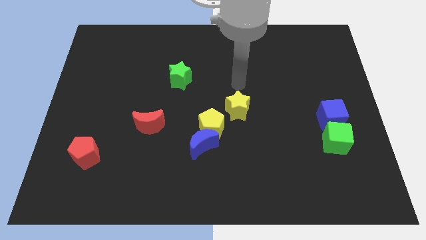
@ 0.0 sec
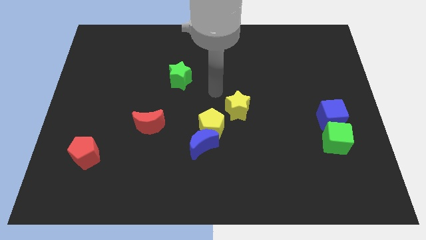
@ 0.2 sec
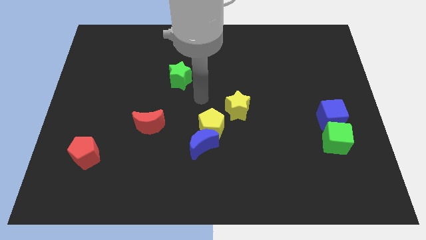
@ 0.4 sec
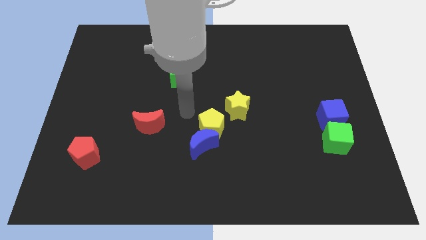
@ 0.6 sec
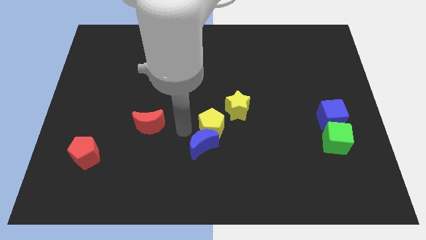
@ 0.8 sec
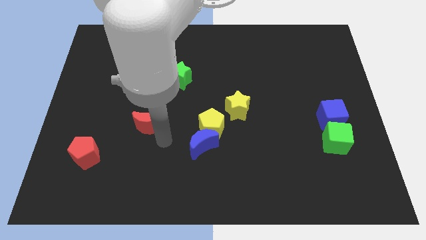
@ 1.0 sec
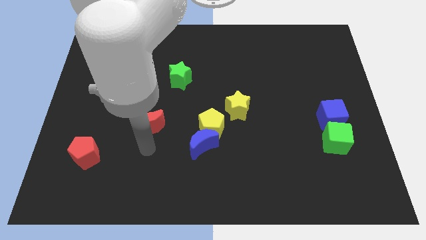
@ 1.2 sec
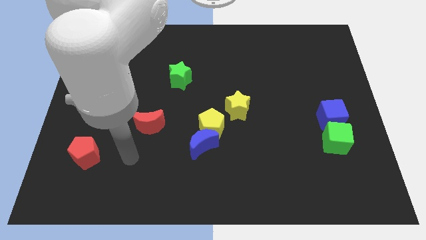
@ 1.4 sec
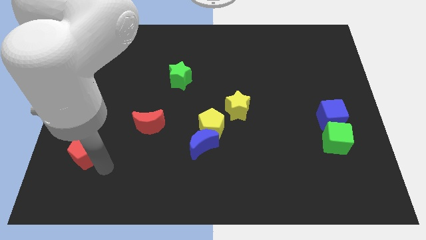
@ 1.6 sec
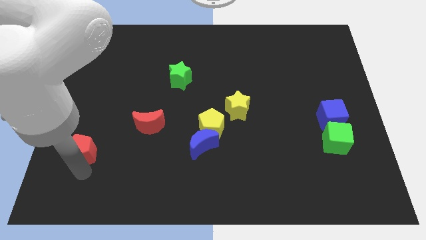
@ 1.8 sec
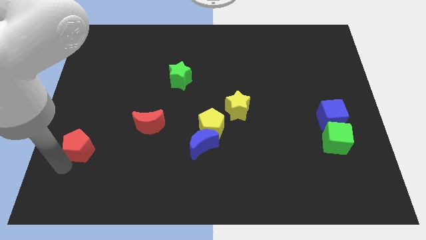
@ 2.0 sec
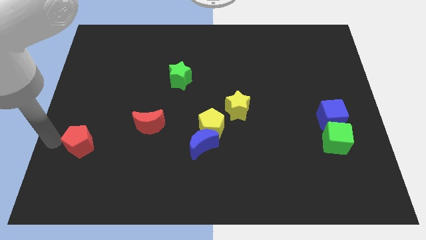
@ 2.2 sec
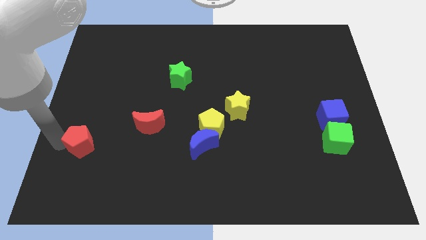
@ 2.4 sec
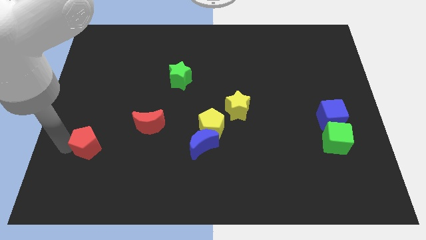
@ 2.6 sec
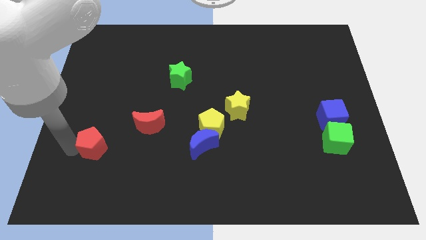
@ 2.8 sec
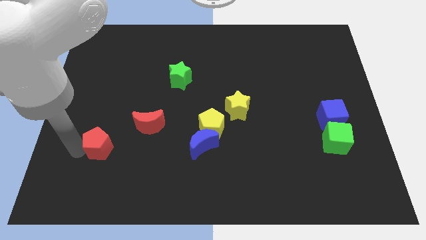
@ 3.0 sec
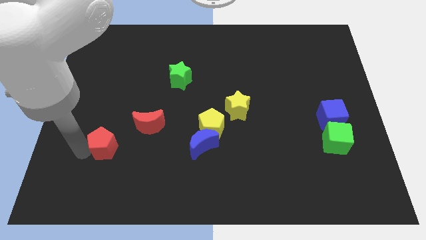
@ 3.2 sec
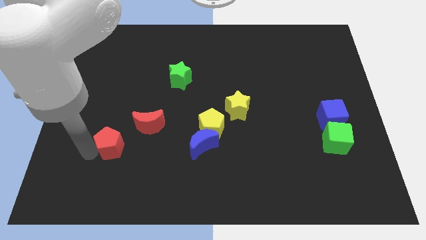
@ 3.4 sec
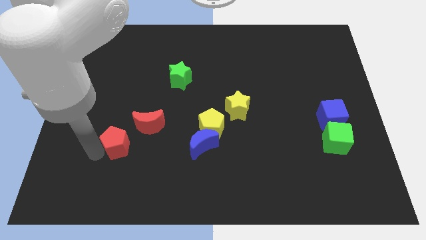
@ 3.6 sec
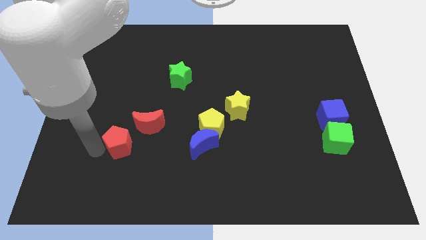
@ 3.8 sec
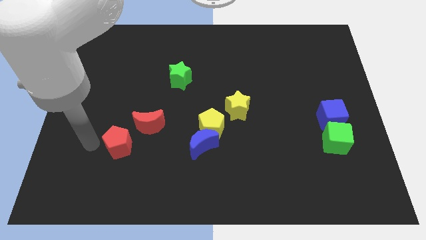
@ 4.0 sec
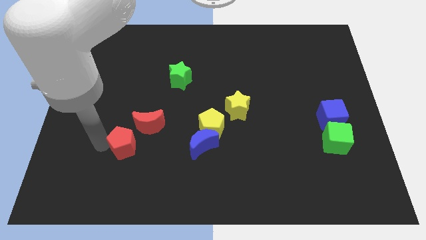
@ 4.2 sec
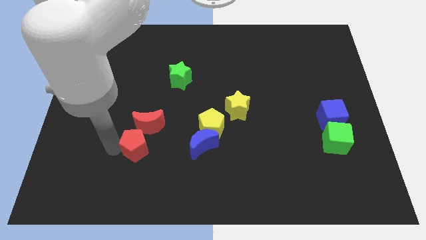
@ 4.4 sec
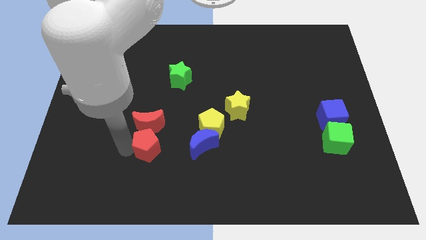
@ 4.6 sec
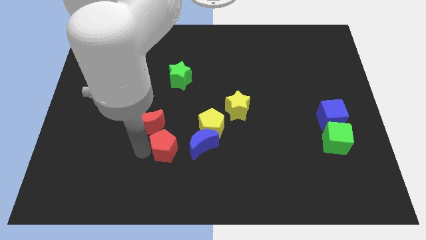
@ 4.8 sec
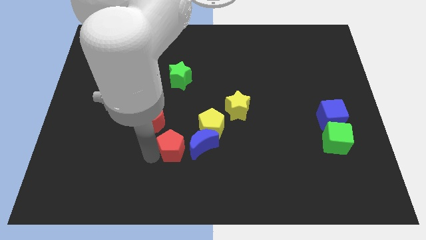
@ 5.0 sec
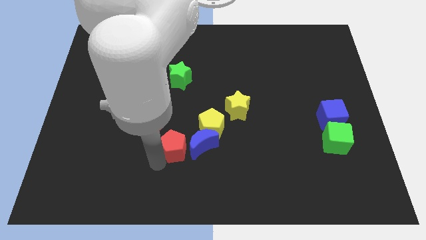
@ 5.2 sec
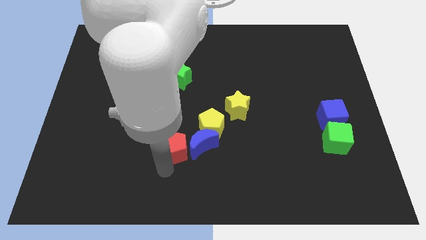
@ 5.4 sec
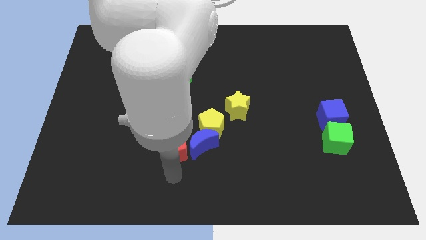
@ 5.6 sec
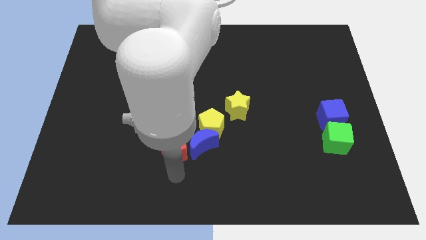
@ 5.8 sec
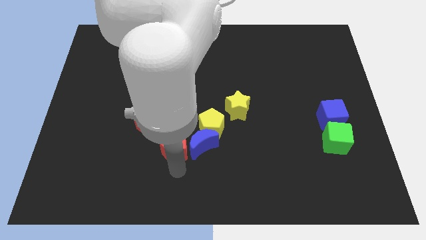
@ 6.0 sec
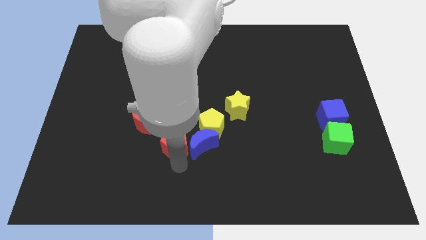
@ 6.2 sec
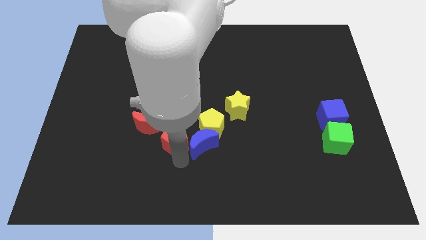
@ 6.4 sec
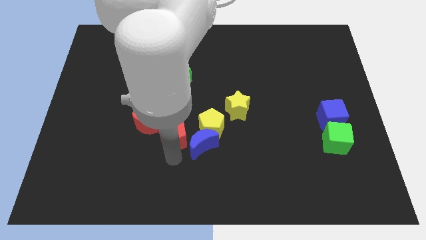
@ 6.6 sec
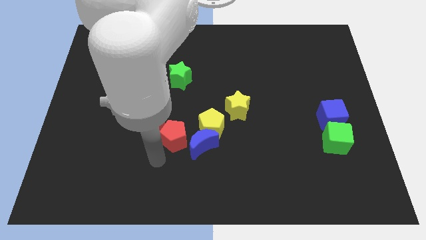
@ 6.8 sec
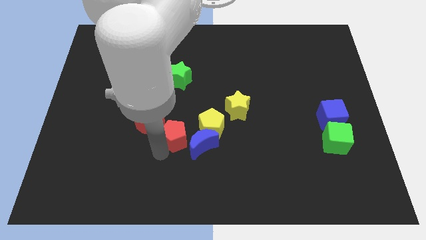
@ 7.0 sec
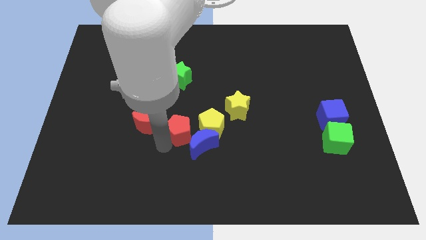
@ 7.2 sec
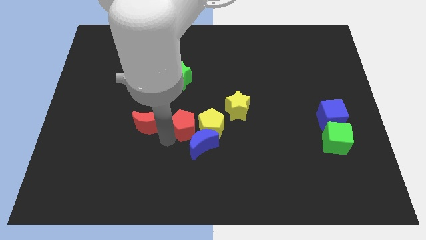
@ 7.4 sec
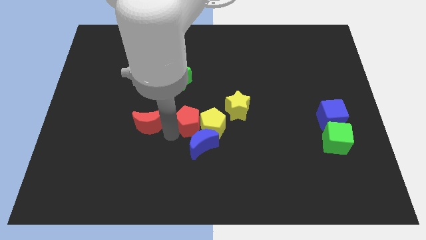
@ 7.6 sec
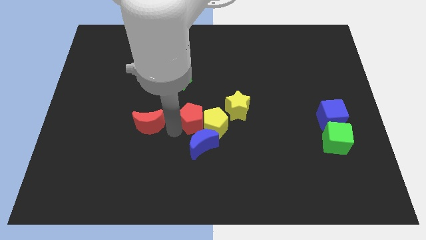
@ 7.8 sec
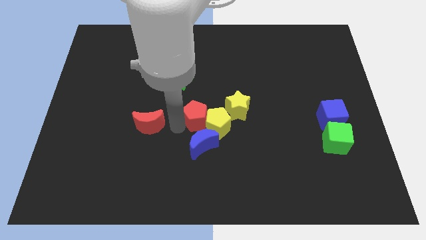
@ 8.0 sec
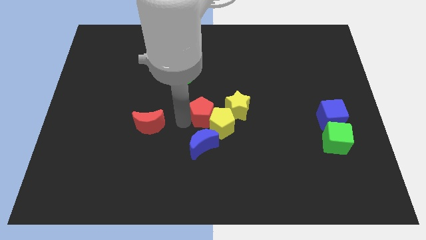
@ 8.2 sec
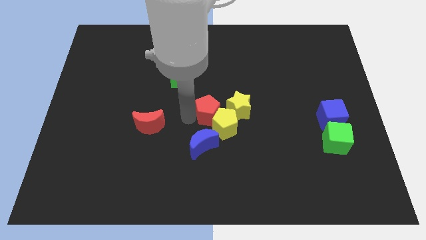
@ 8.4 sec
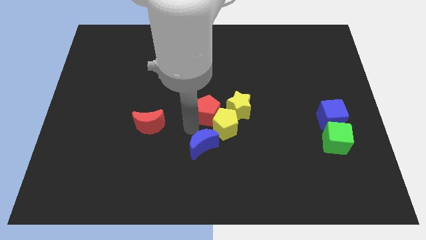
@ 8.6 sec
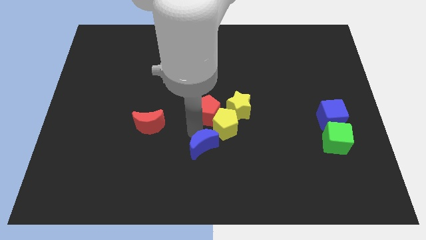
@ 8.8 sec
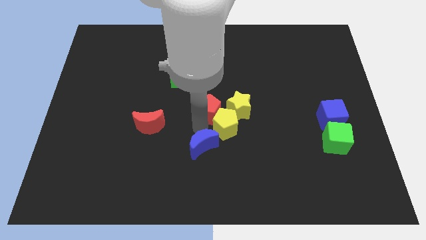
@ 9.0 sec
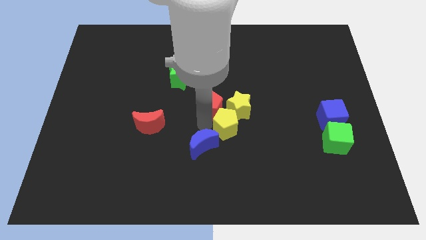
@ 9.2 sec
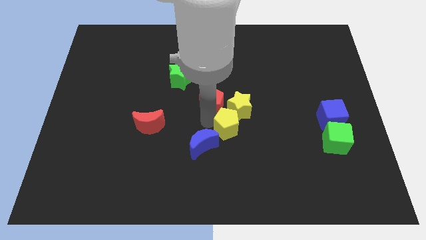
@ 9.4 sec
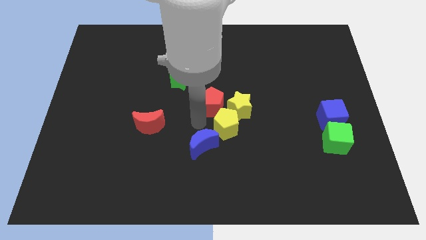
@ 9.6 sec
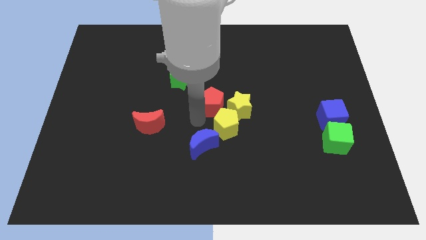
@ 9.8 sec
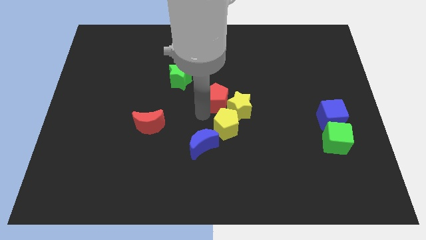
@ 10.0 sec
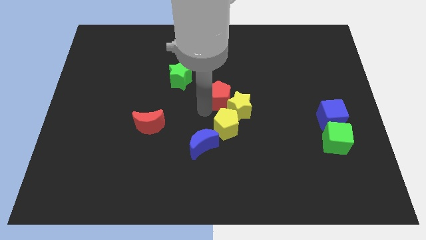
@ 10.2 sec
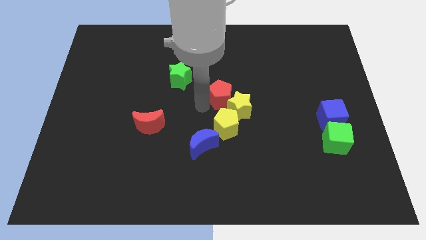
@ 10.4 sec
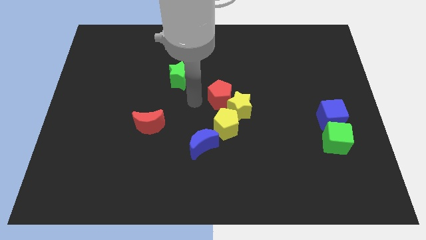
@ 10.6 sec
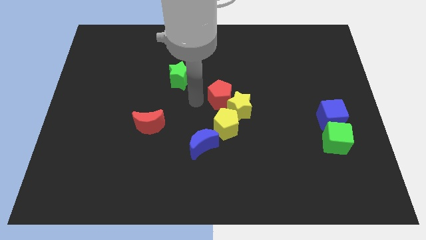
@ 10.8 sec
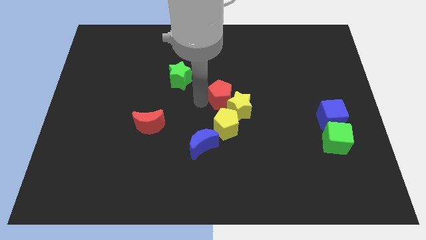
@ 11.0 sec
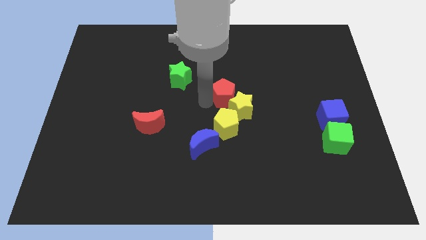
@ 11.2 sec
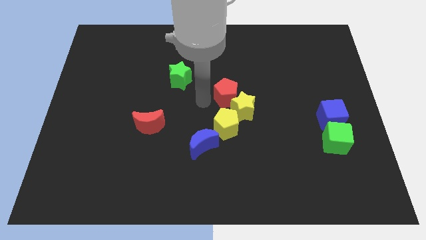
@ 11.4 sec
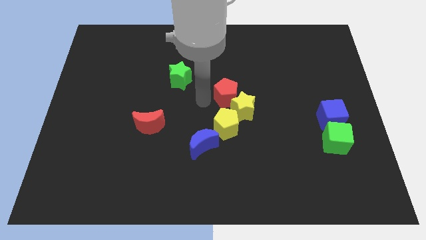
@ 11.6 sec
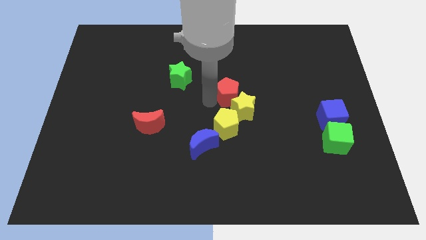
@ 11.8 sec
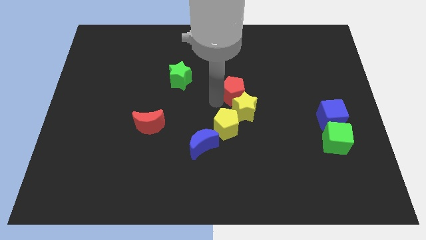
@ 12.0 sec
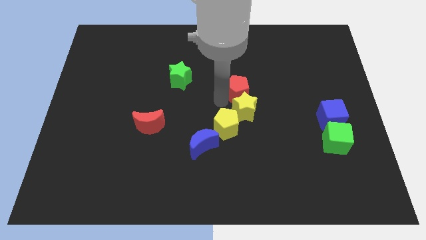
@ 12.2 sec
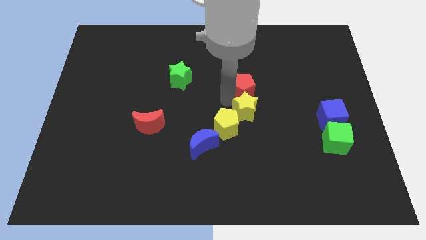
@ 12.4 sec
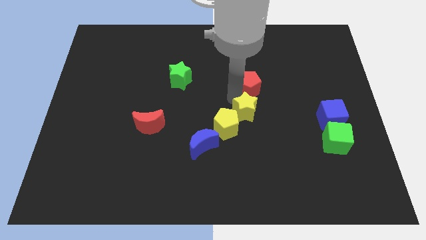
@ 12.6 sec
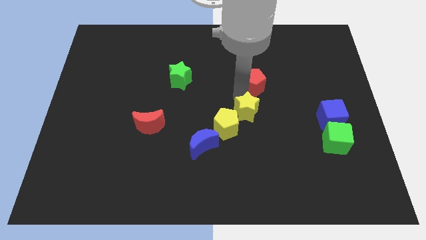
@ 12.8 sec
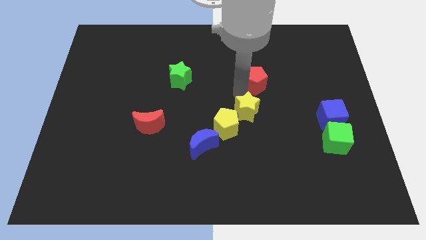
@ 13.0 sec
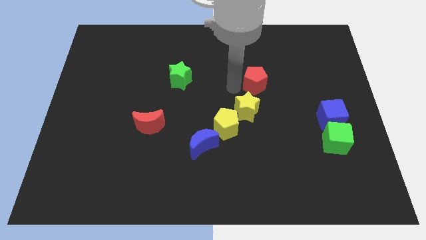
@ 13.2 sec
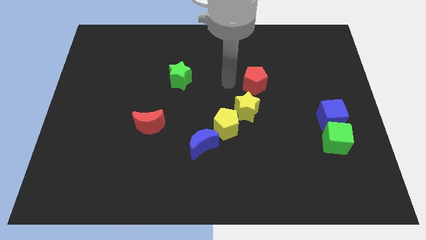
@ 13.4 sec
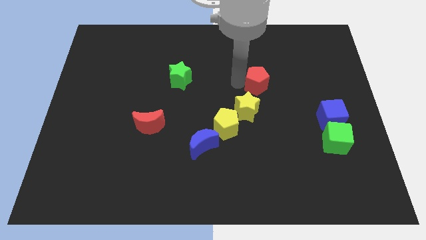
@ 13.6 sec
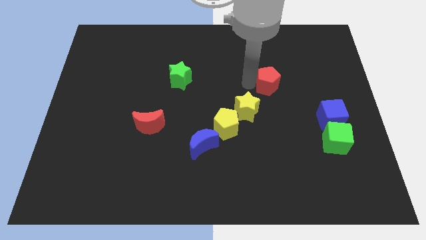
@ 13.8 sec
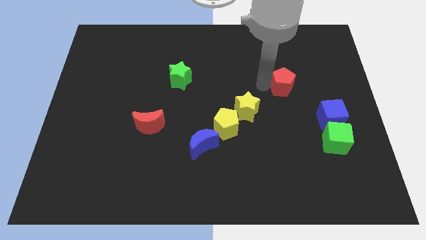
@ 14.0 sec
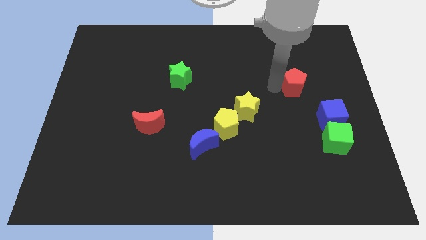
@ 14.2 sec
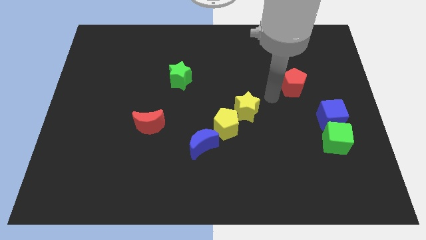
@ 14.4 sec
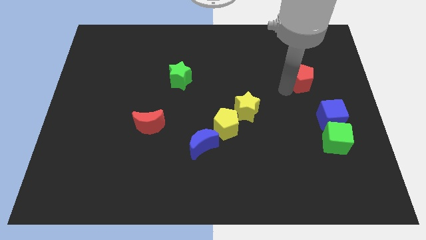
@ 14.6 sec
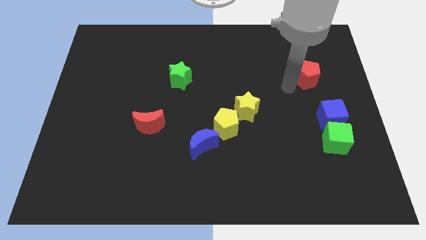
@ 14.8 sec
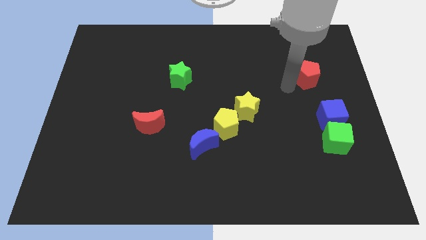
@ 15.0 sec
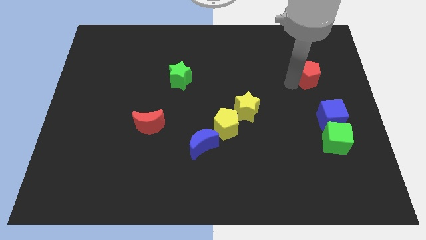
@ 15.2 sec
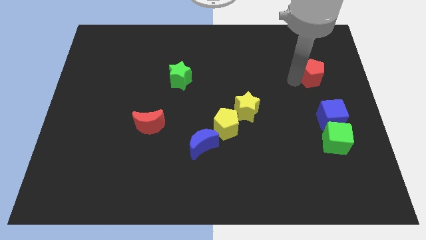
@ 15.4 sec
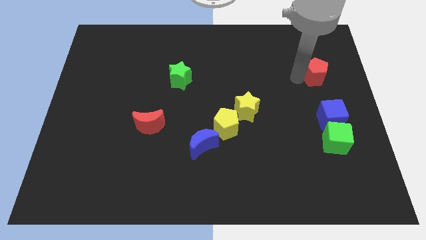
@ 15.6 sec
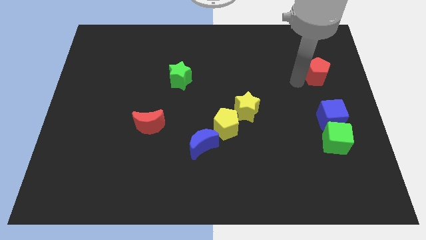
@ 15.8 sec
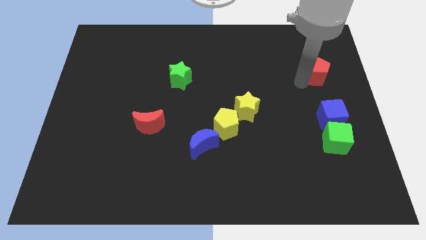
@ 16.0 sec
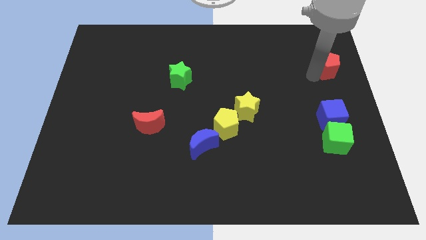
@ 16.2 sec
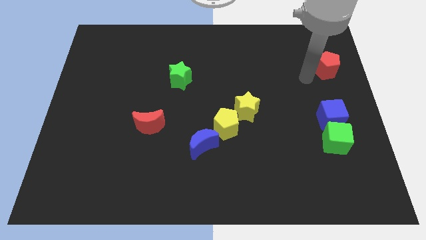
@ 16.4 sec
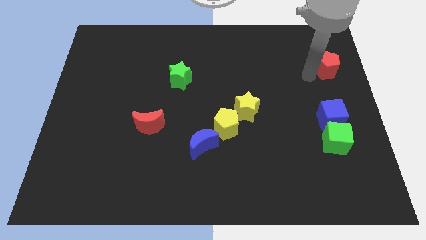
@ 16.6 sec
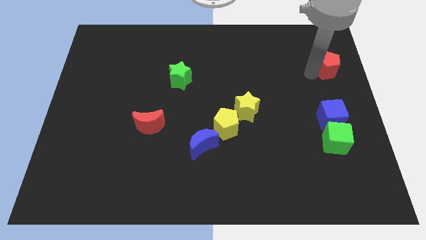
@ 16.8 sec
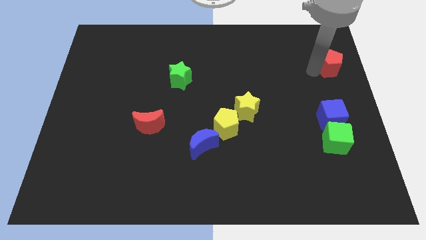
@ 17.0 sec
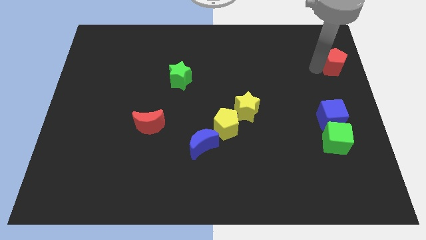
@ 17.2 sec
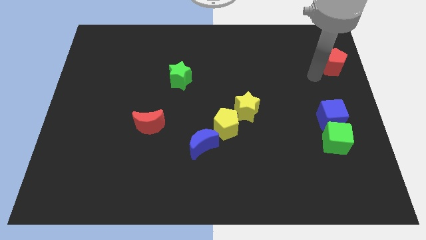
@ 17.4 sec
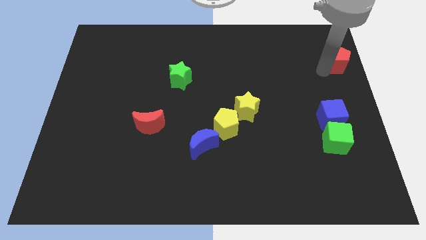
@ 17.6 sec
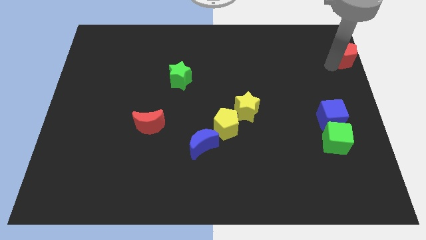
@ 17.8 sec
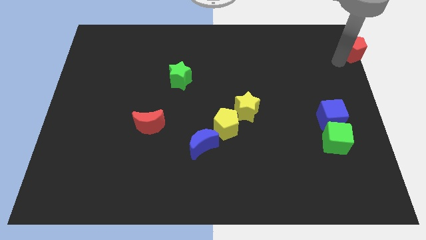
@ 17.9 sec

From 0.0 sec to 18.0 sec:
move the red pentagon to the top right corner
